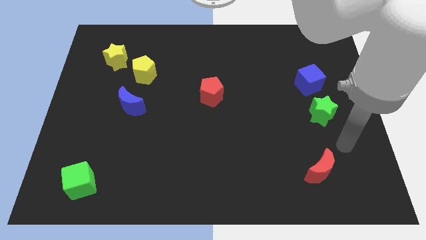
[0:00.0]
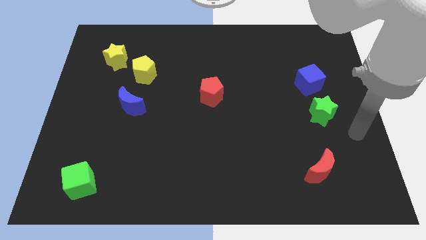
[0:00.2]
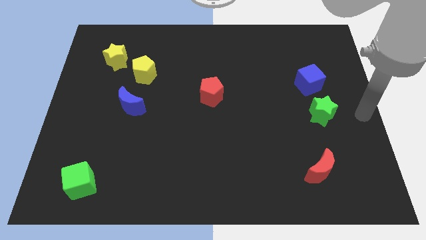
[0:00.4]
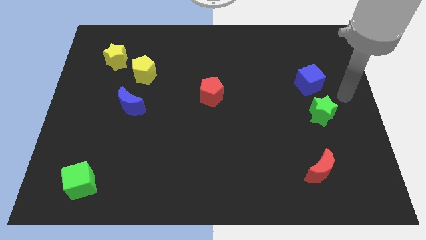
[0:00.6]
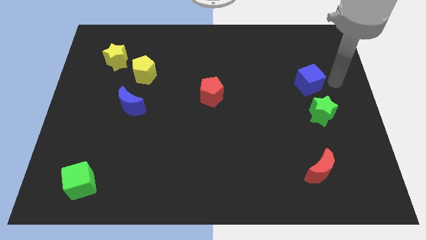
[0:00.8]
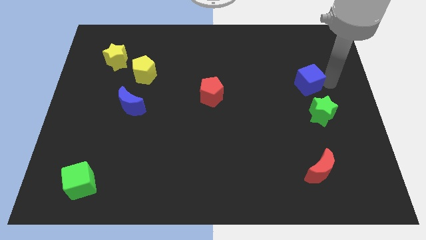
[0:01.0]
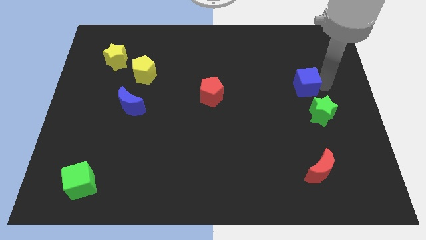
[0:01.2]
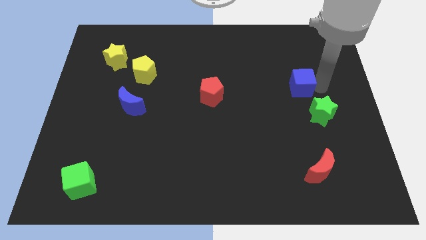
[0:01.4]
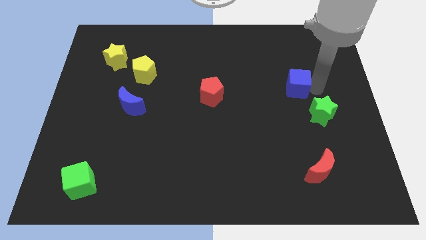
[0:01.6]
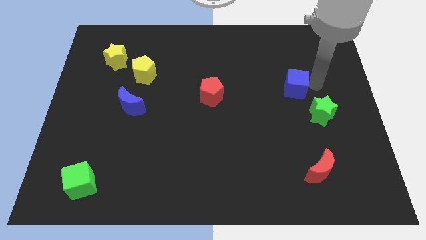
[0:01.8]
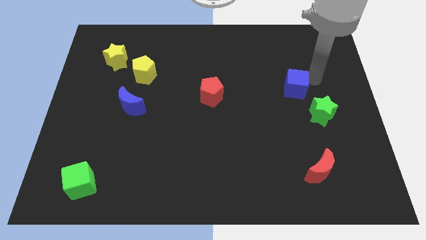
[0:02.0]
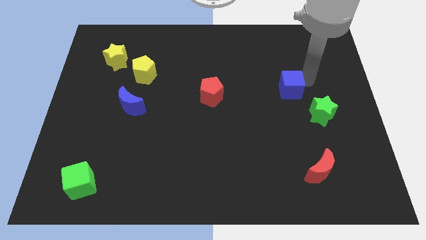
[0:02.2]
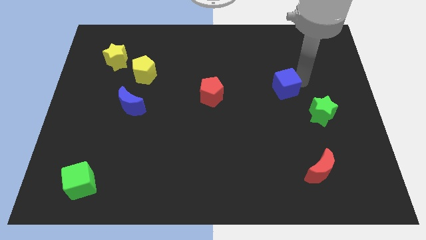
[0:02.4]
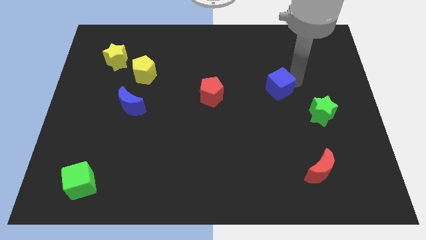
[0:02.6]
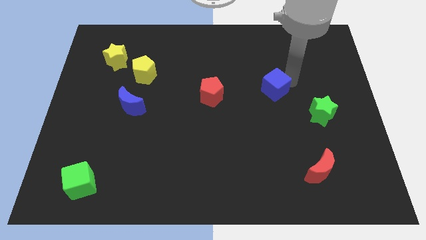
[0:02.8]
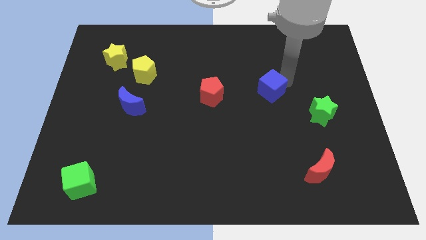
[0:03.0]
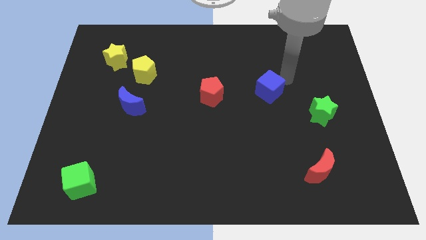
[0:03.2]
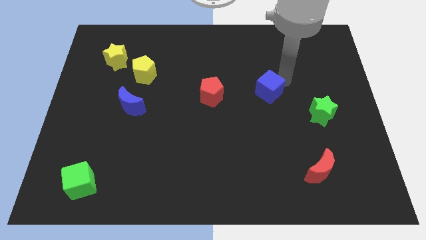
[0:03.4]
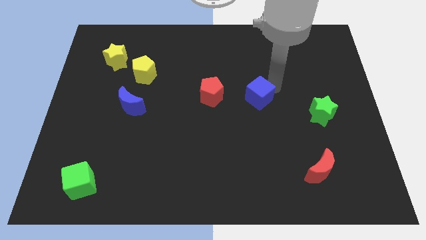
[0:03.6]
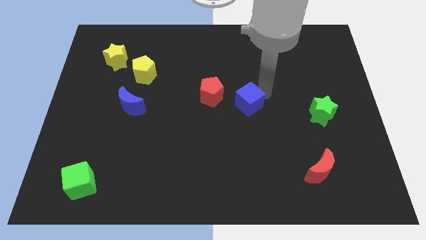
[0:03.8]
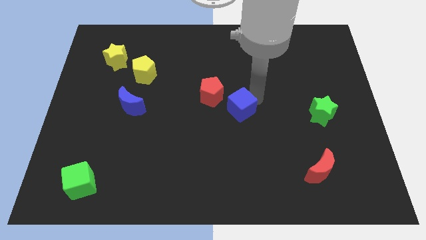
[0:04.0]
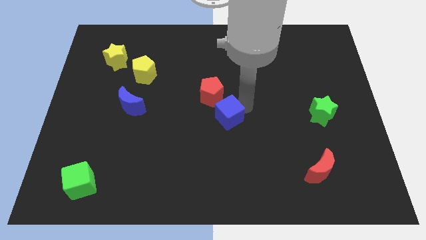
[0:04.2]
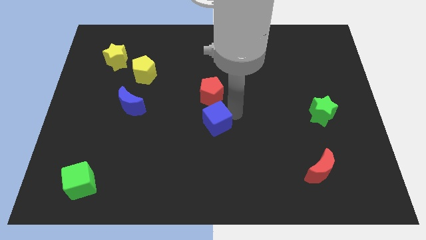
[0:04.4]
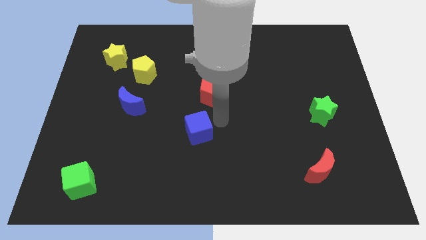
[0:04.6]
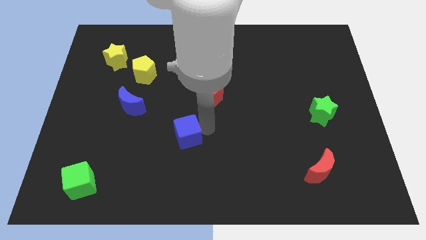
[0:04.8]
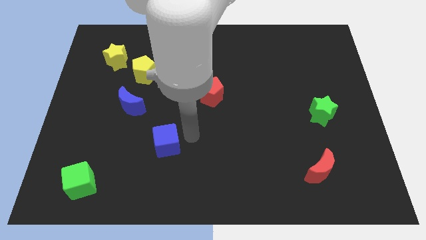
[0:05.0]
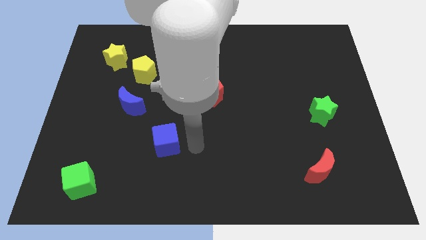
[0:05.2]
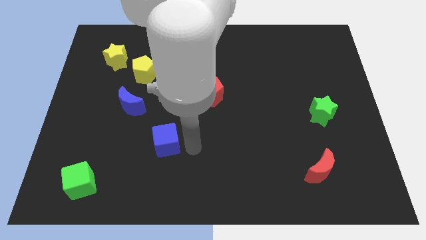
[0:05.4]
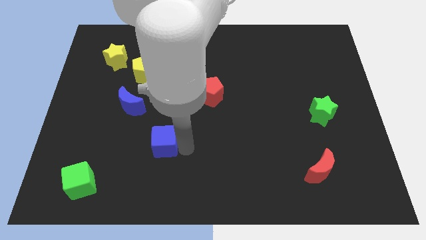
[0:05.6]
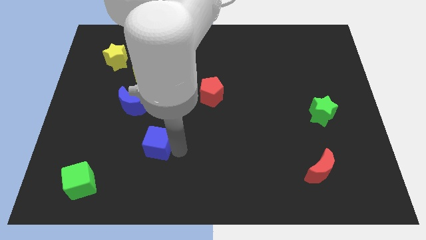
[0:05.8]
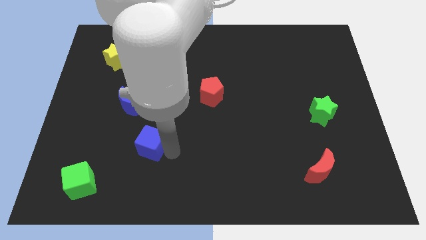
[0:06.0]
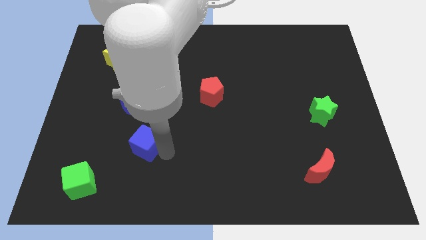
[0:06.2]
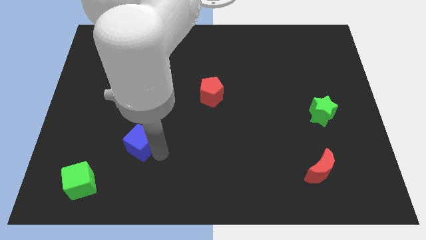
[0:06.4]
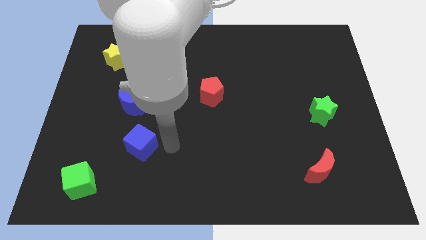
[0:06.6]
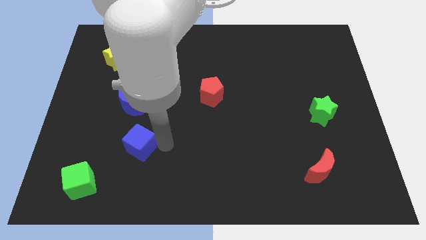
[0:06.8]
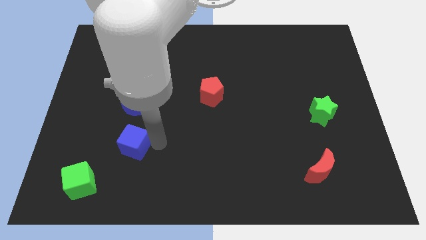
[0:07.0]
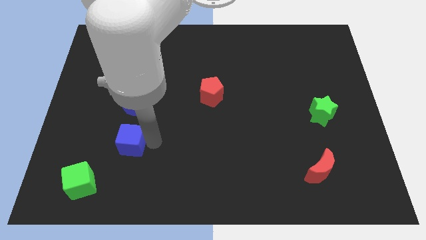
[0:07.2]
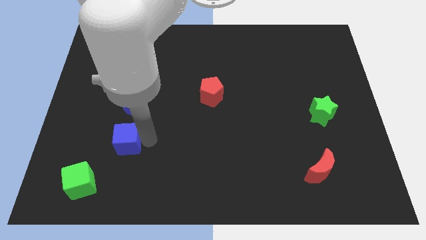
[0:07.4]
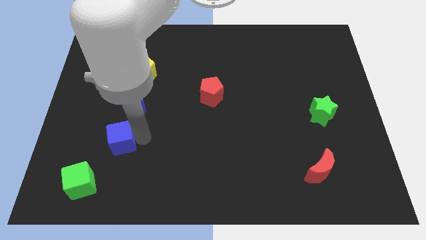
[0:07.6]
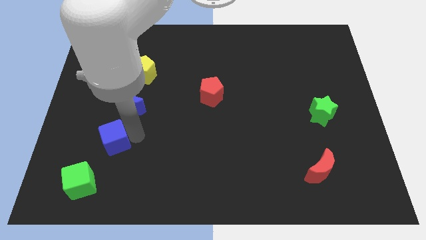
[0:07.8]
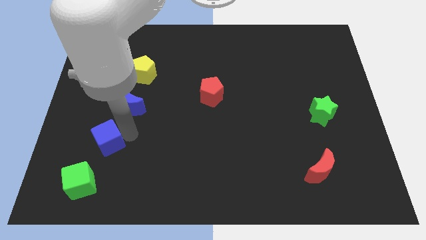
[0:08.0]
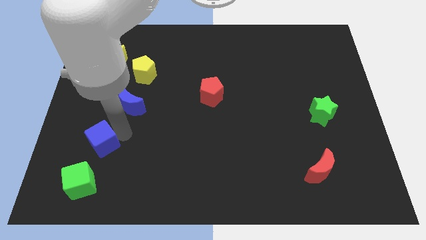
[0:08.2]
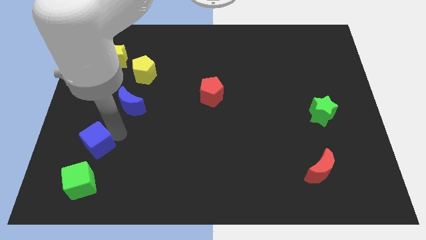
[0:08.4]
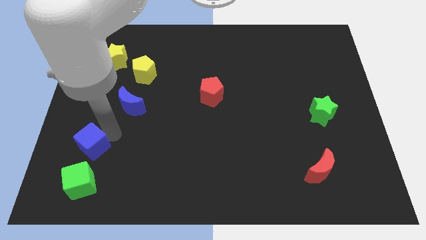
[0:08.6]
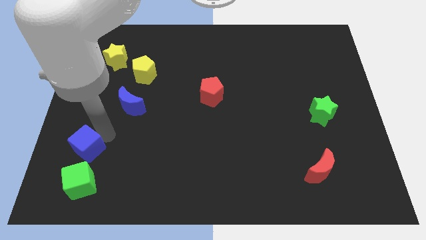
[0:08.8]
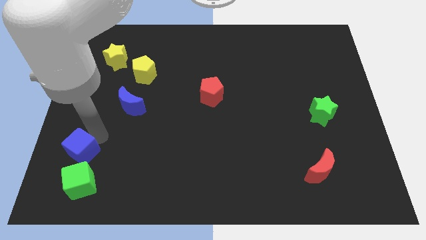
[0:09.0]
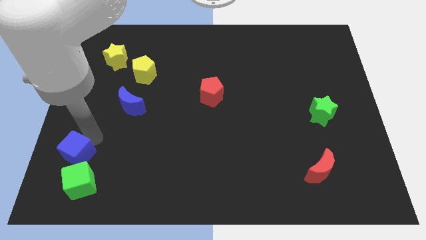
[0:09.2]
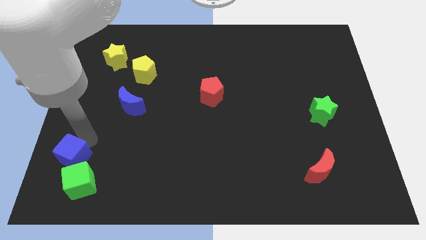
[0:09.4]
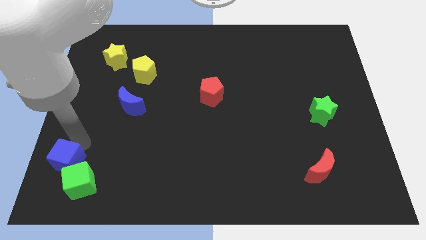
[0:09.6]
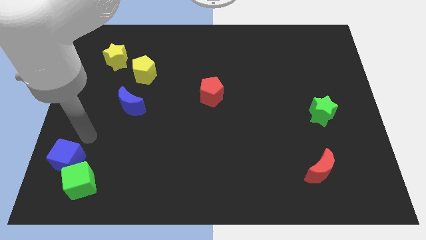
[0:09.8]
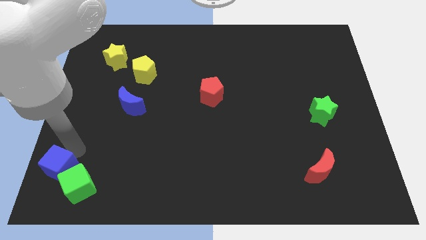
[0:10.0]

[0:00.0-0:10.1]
move the blue cube to the bottom left corner

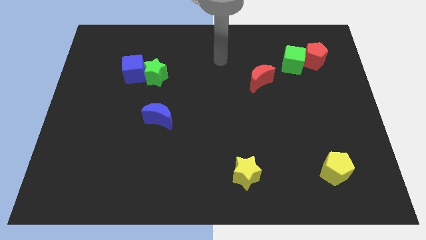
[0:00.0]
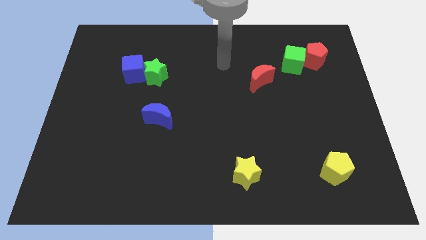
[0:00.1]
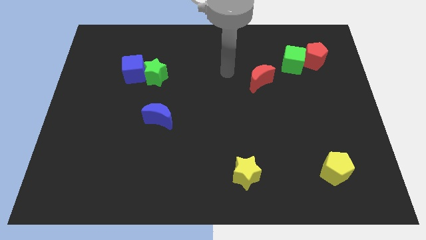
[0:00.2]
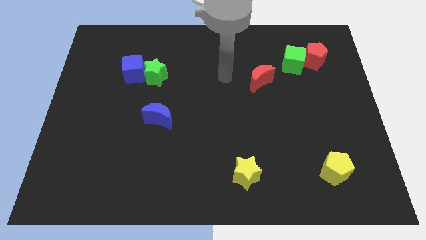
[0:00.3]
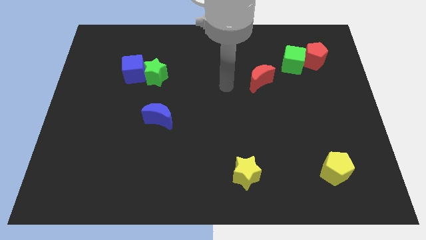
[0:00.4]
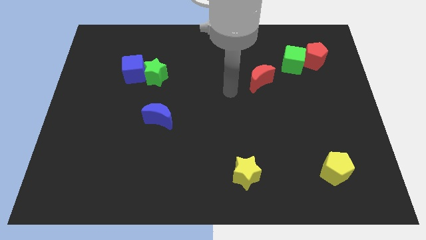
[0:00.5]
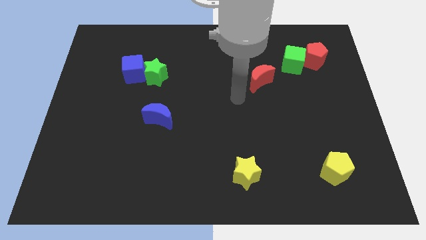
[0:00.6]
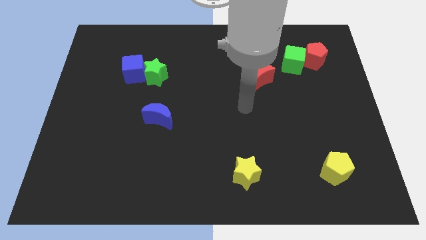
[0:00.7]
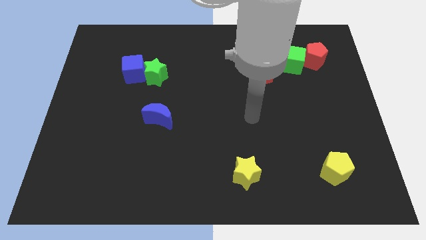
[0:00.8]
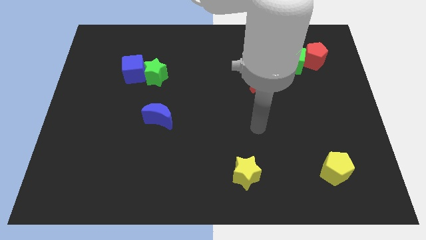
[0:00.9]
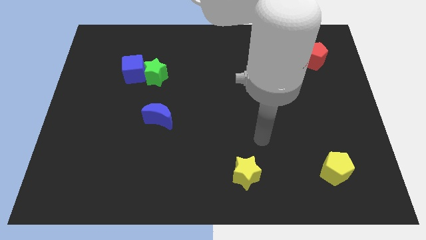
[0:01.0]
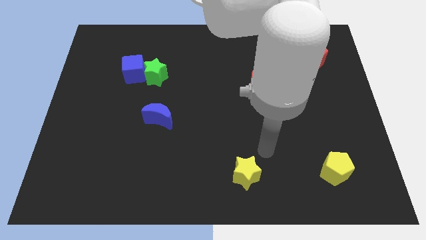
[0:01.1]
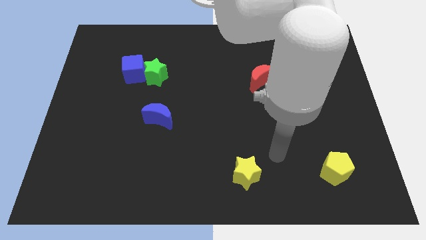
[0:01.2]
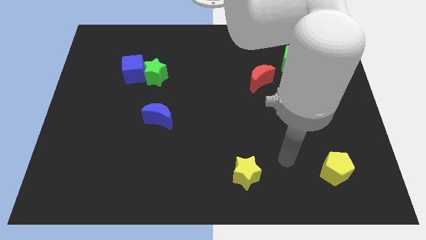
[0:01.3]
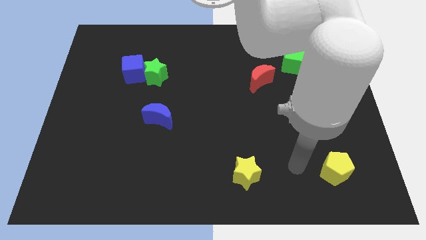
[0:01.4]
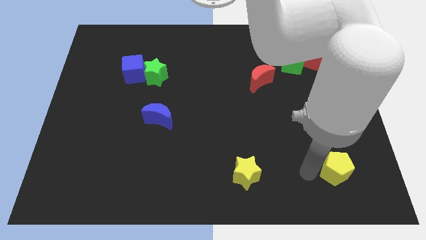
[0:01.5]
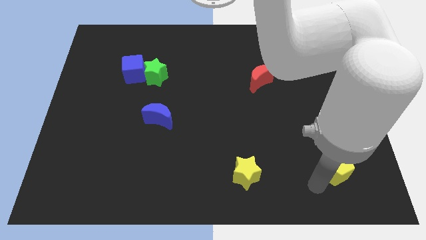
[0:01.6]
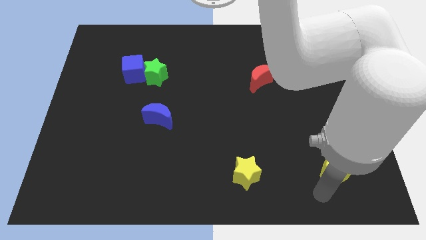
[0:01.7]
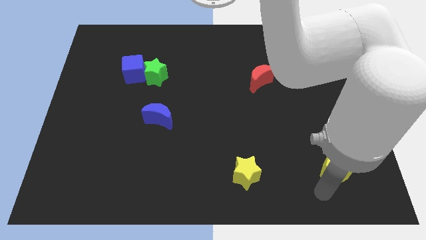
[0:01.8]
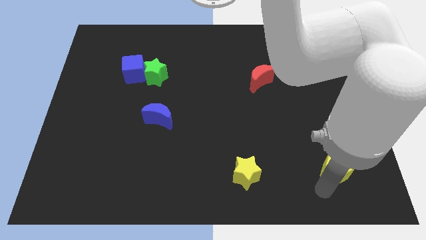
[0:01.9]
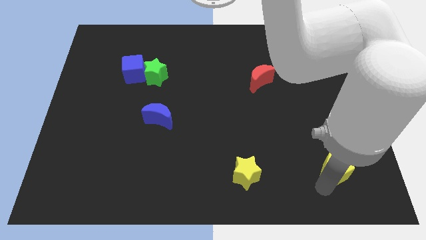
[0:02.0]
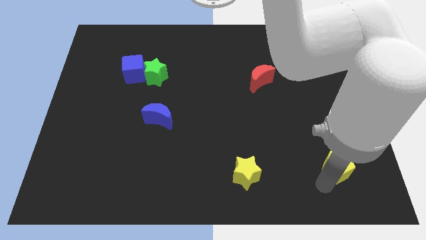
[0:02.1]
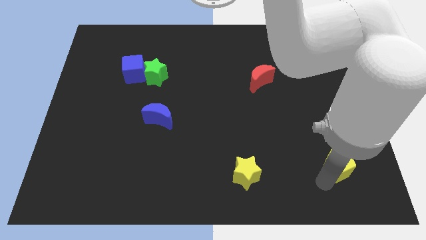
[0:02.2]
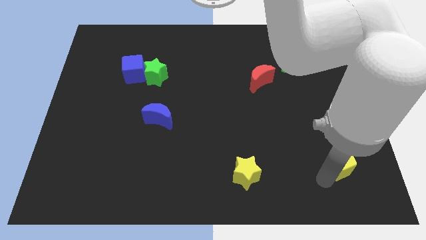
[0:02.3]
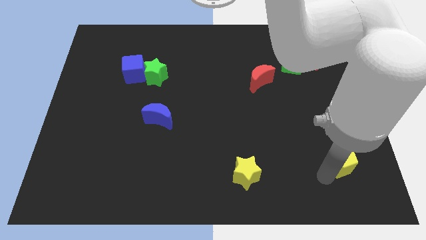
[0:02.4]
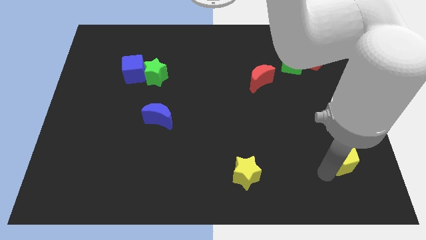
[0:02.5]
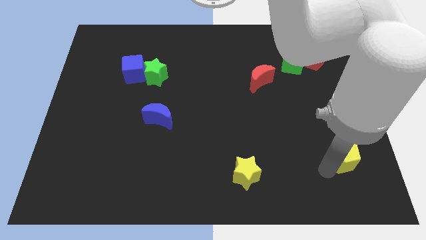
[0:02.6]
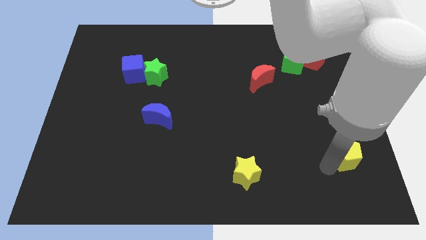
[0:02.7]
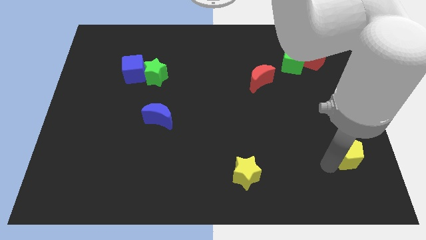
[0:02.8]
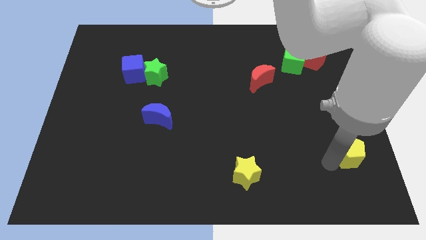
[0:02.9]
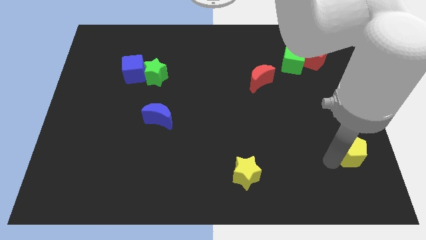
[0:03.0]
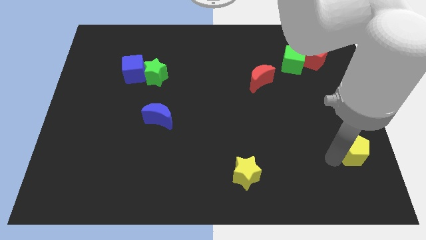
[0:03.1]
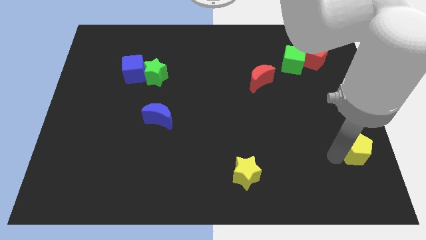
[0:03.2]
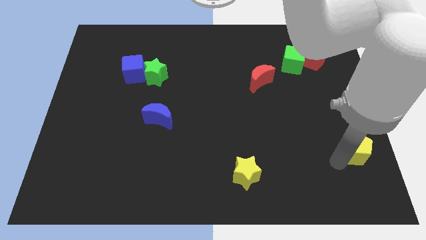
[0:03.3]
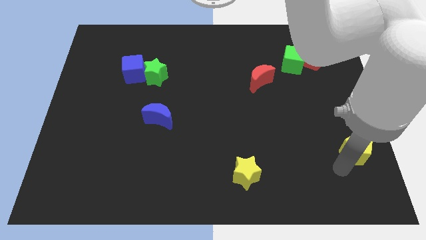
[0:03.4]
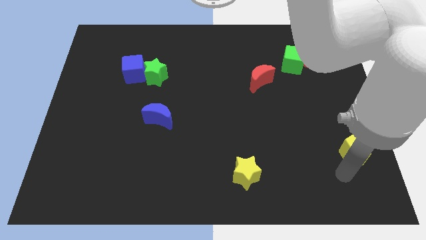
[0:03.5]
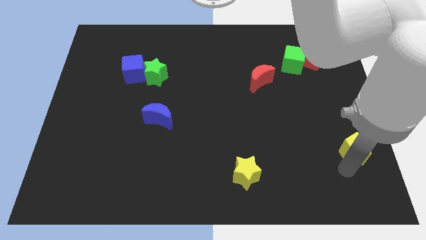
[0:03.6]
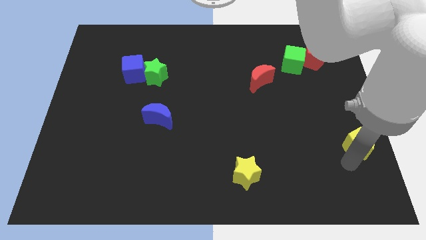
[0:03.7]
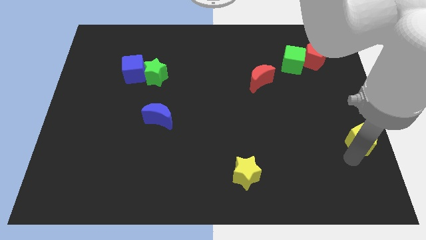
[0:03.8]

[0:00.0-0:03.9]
put the yellow pentagon to the right side of the board
